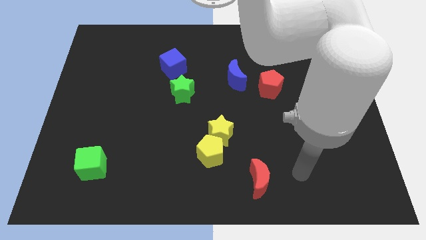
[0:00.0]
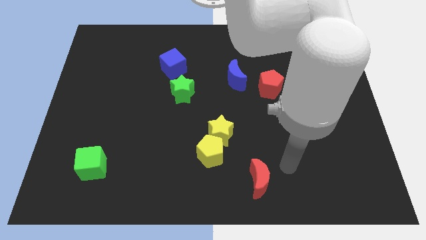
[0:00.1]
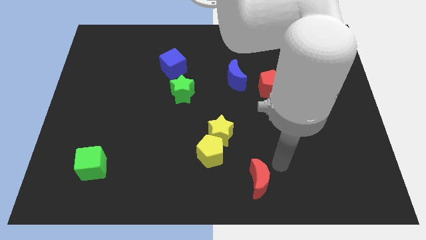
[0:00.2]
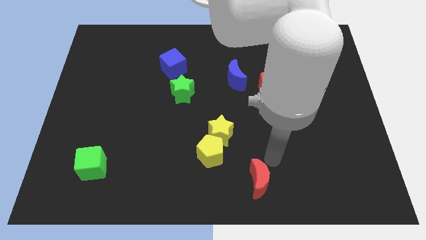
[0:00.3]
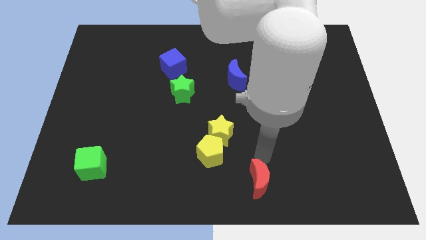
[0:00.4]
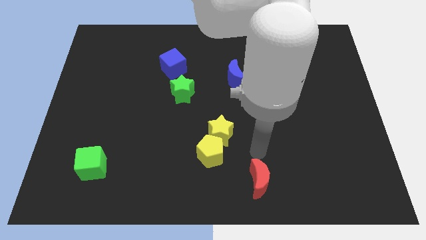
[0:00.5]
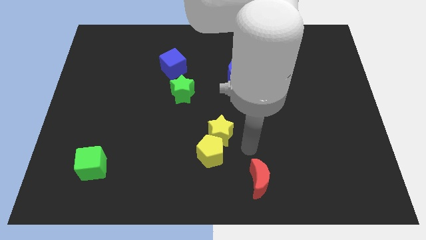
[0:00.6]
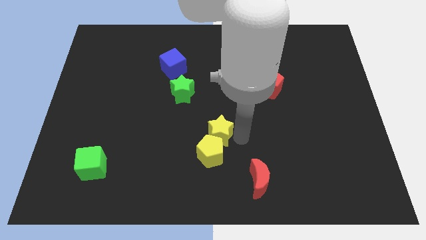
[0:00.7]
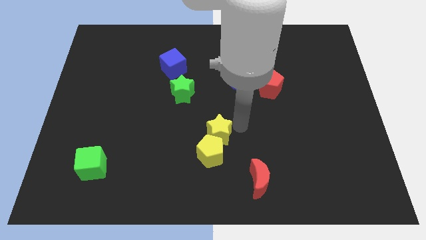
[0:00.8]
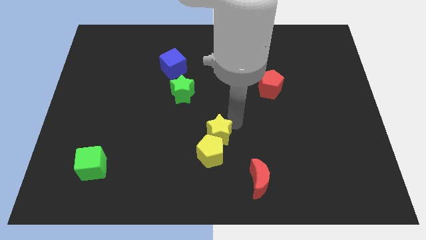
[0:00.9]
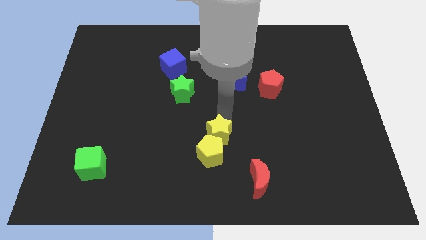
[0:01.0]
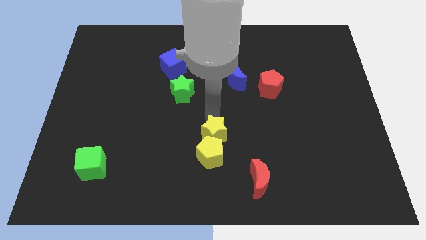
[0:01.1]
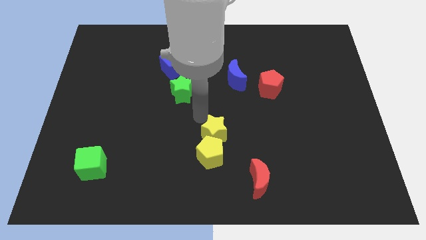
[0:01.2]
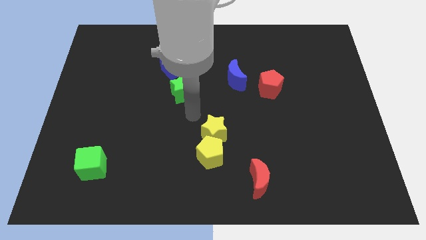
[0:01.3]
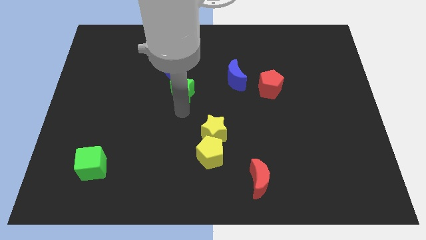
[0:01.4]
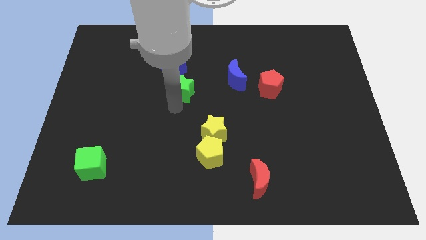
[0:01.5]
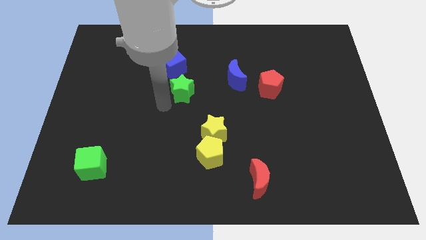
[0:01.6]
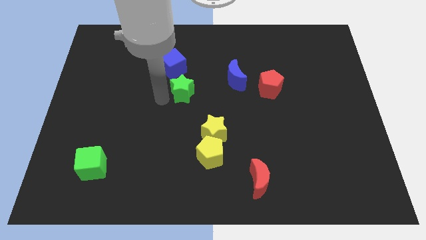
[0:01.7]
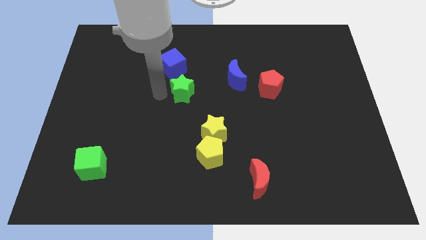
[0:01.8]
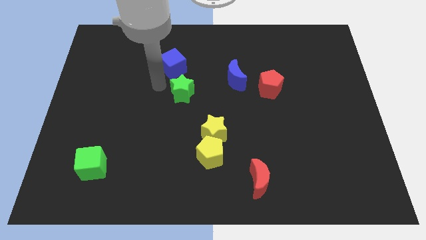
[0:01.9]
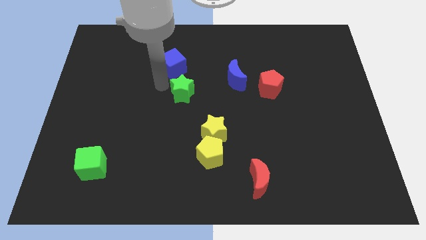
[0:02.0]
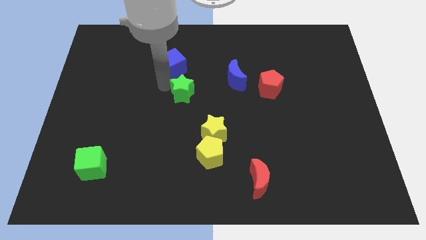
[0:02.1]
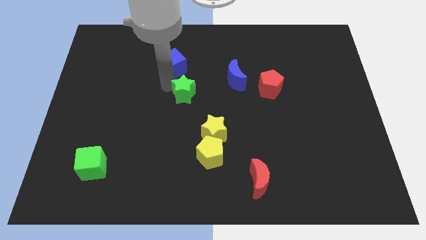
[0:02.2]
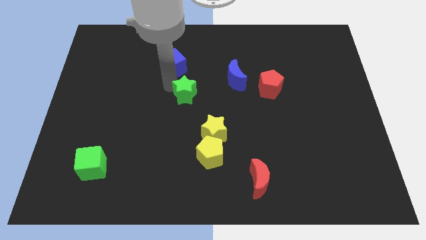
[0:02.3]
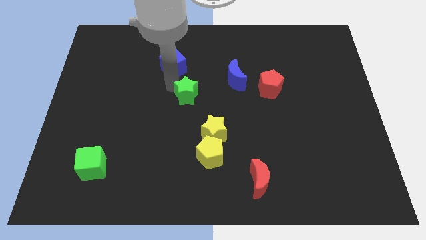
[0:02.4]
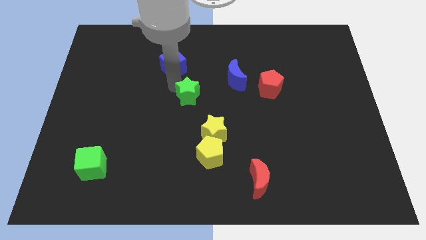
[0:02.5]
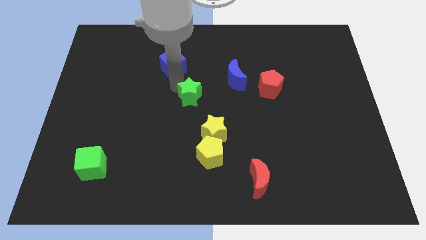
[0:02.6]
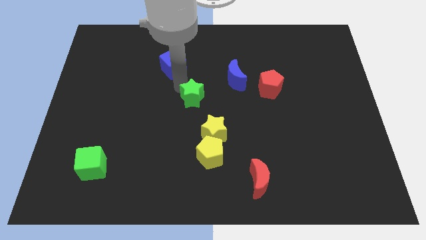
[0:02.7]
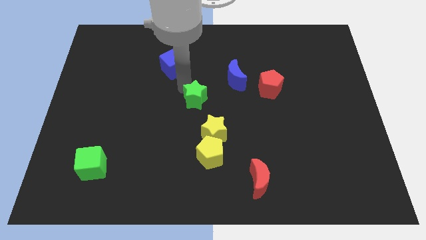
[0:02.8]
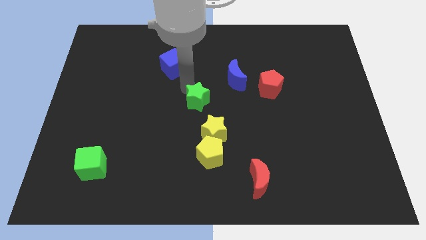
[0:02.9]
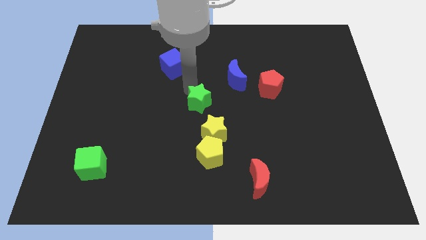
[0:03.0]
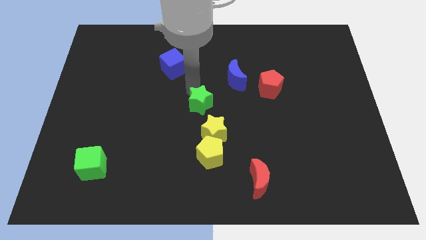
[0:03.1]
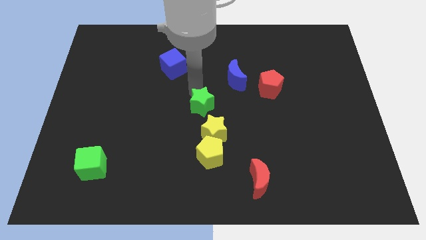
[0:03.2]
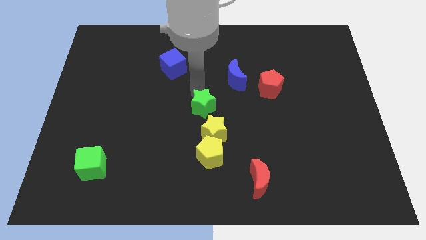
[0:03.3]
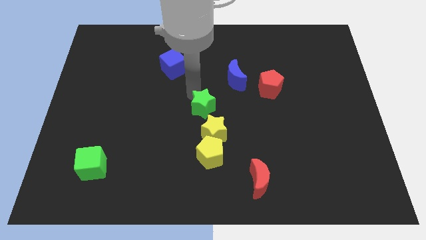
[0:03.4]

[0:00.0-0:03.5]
move the green star a little diagonally downwards and right

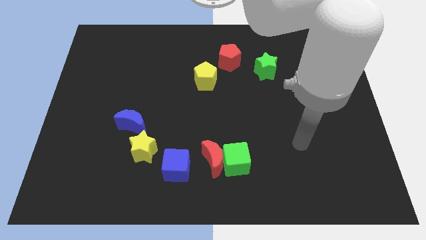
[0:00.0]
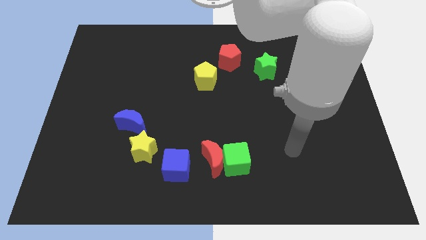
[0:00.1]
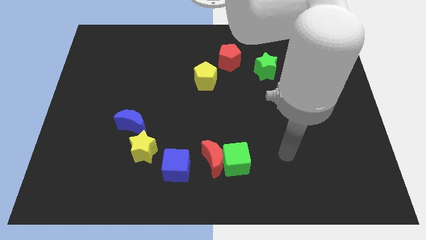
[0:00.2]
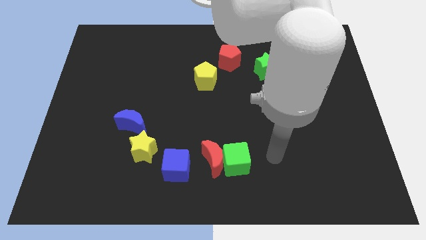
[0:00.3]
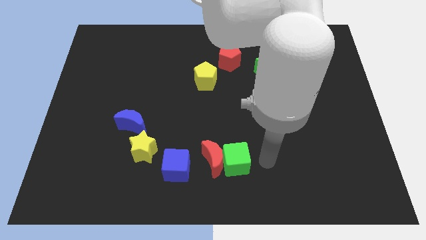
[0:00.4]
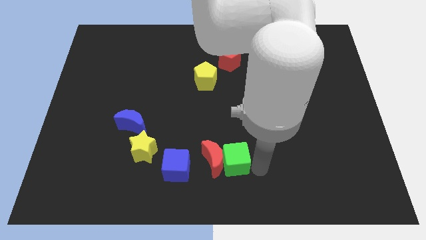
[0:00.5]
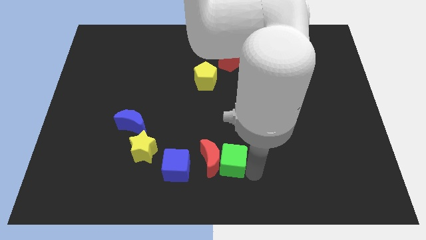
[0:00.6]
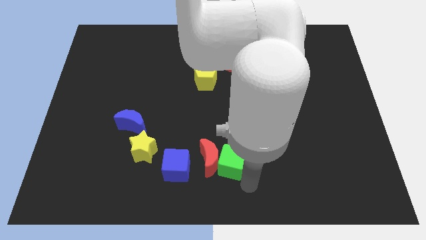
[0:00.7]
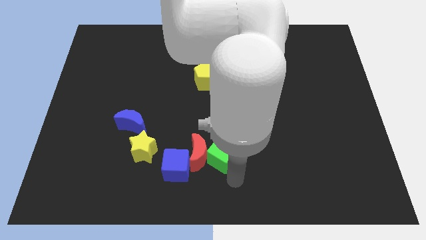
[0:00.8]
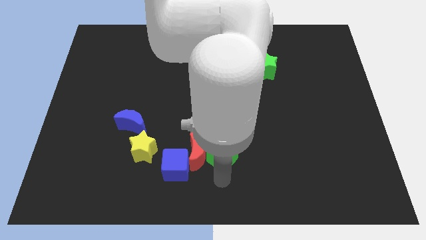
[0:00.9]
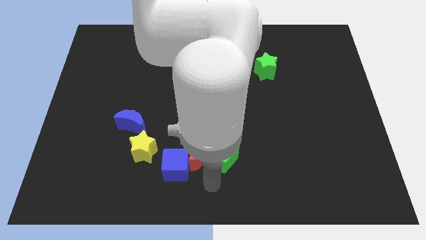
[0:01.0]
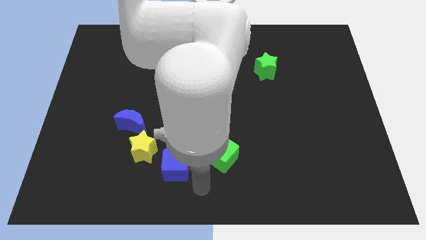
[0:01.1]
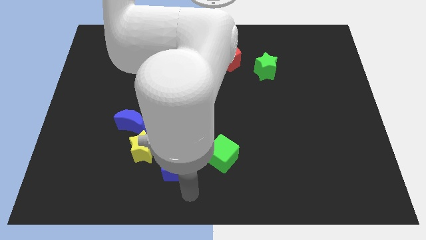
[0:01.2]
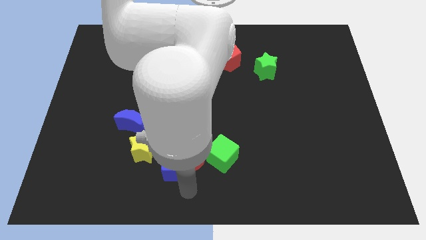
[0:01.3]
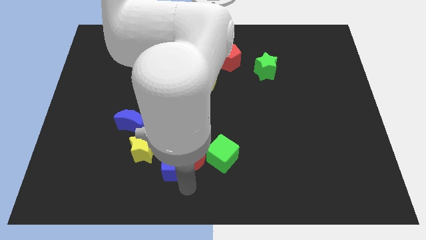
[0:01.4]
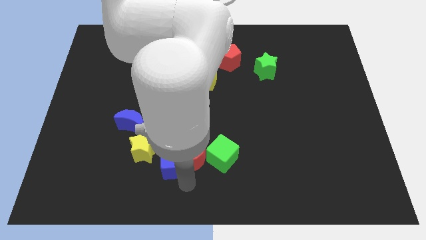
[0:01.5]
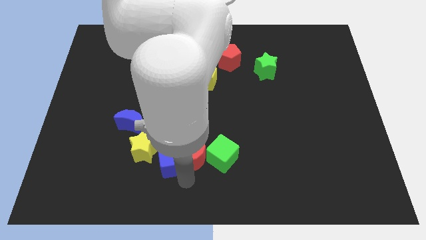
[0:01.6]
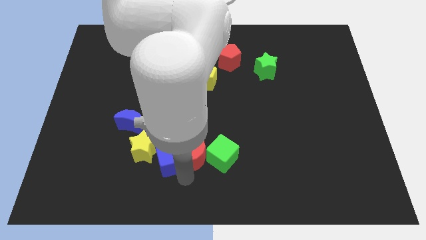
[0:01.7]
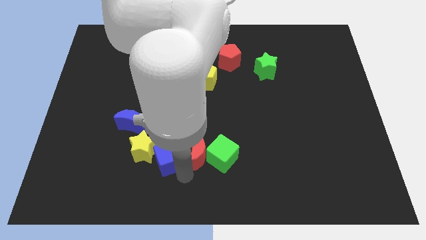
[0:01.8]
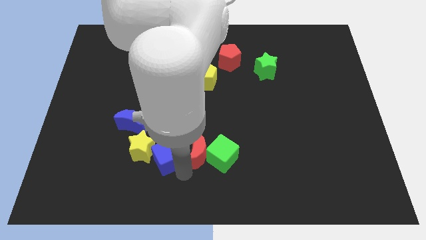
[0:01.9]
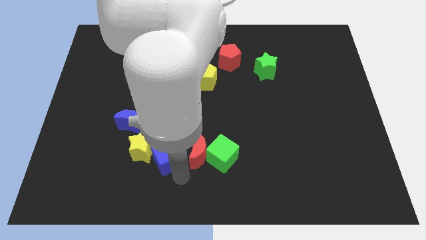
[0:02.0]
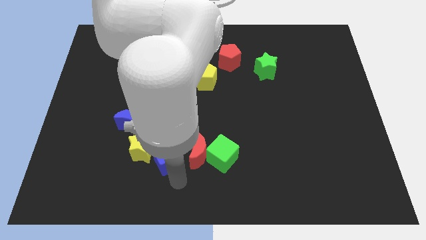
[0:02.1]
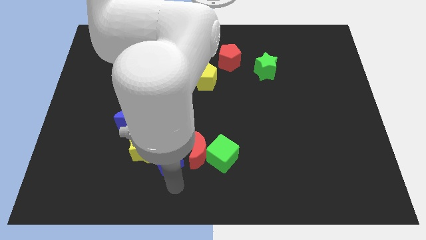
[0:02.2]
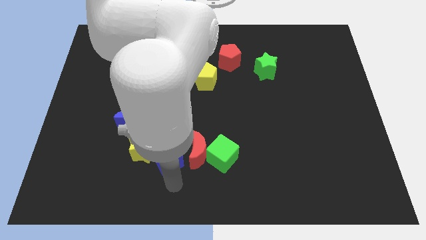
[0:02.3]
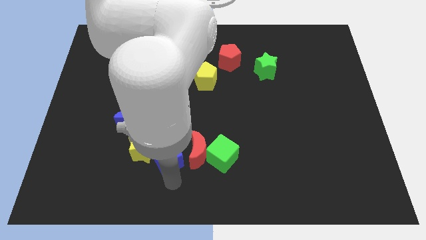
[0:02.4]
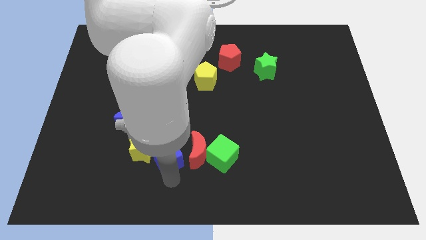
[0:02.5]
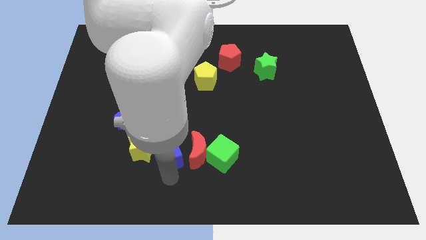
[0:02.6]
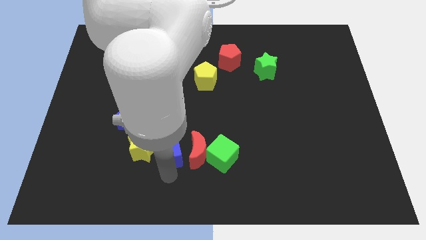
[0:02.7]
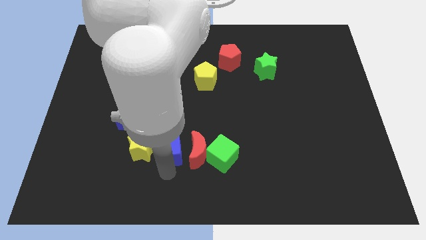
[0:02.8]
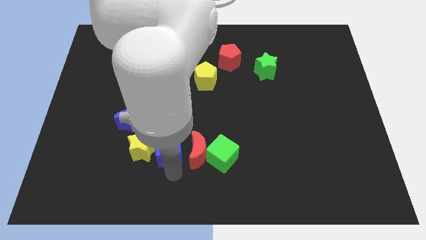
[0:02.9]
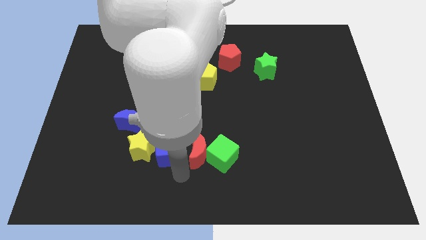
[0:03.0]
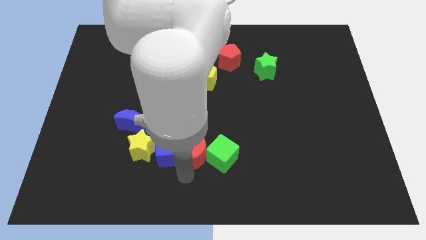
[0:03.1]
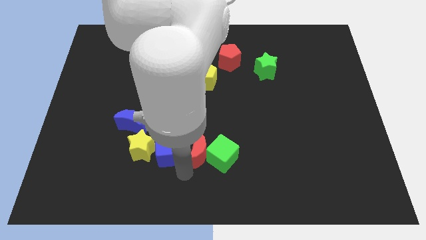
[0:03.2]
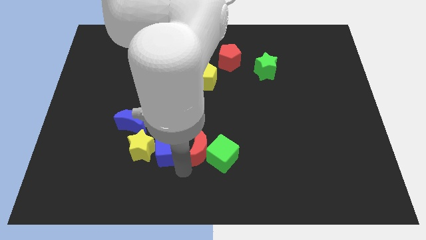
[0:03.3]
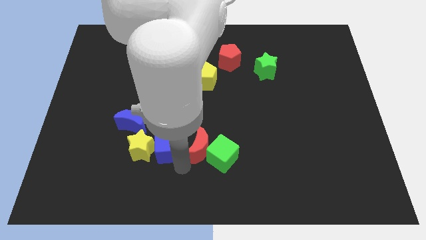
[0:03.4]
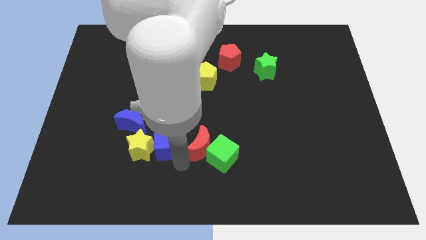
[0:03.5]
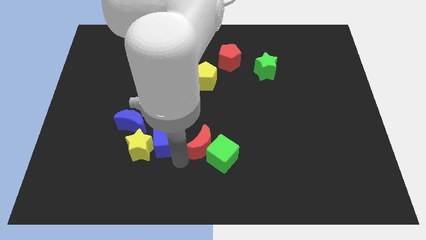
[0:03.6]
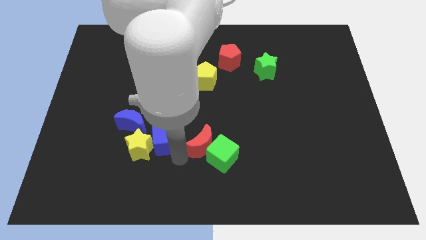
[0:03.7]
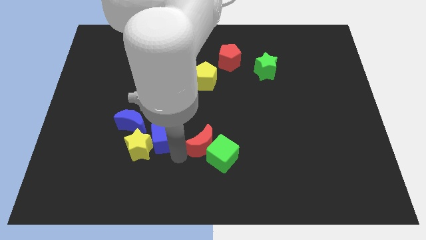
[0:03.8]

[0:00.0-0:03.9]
slightly slide the blue cube diagonally upwards and to the left

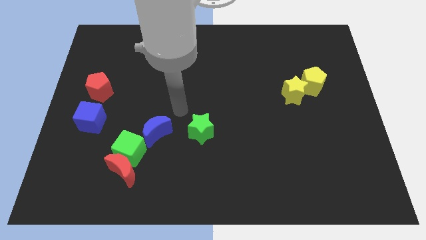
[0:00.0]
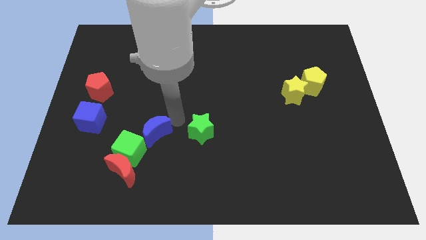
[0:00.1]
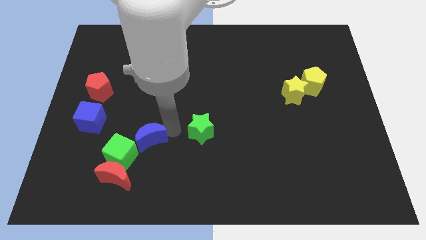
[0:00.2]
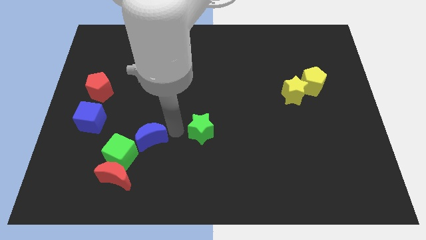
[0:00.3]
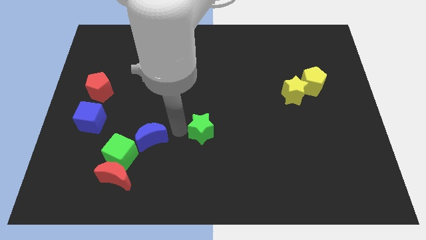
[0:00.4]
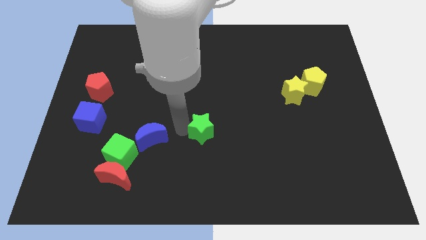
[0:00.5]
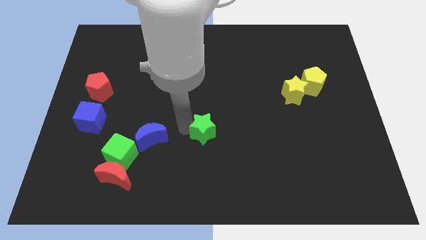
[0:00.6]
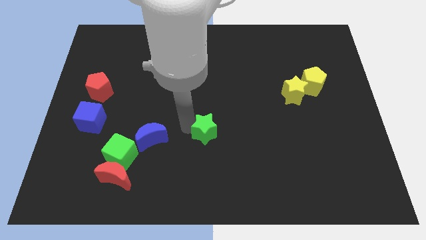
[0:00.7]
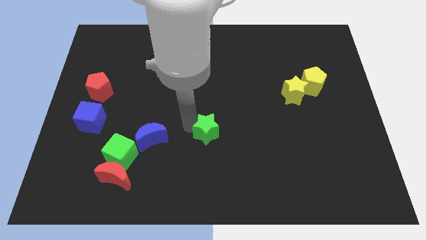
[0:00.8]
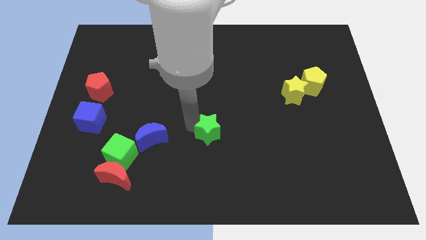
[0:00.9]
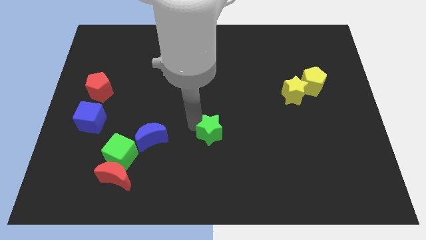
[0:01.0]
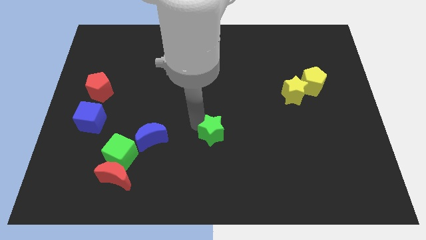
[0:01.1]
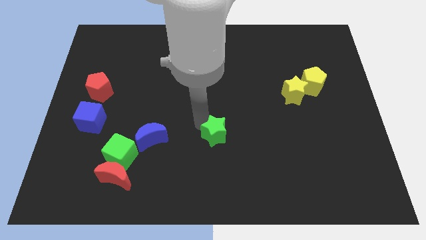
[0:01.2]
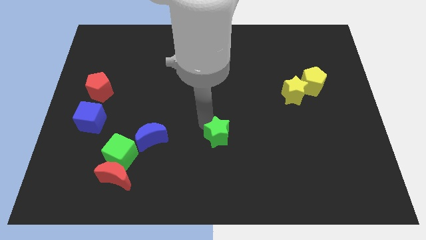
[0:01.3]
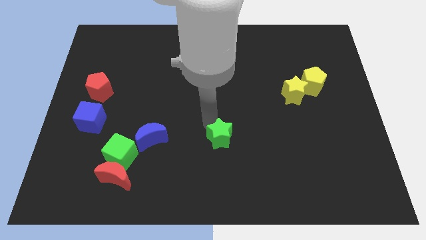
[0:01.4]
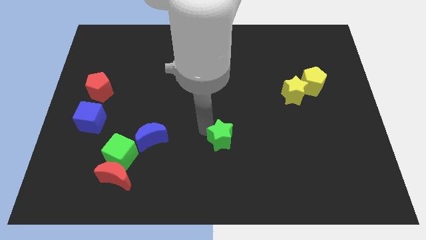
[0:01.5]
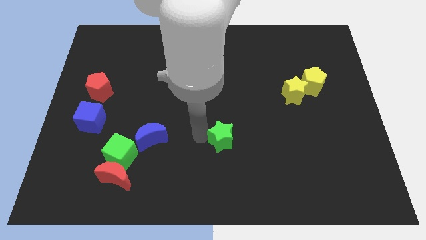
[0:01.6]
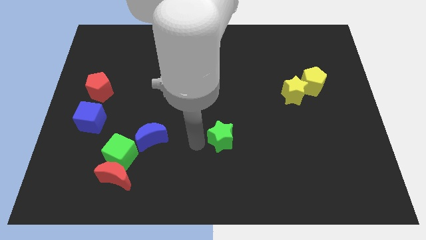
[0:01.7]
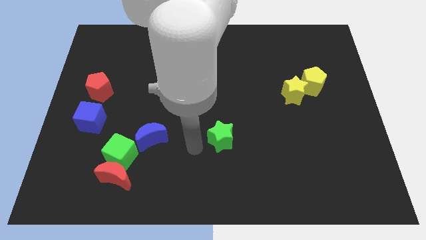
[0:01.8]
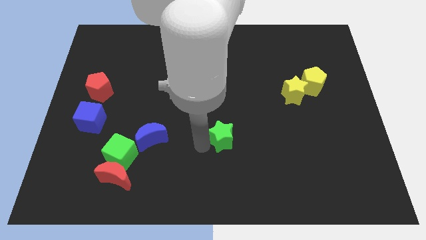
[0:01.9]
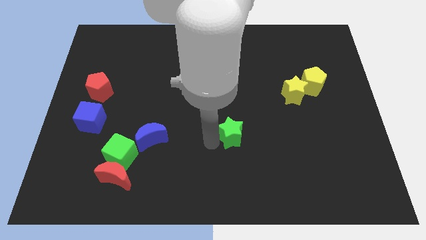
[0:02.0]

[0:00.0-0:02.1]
slide the green star to the right a bit
